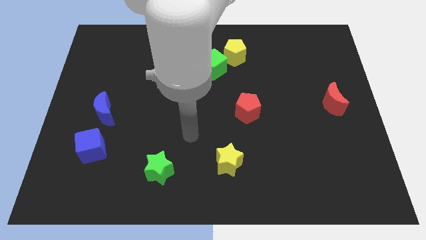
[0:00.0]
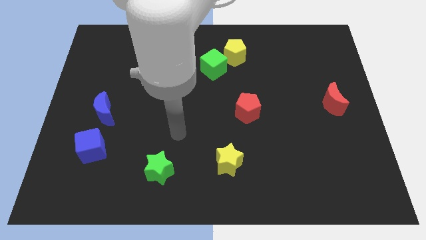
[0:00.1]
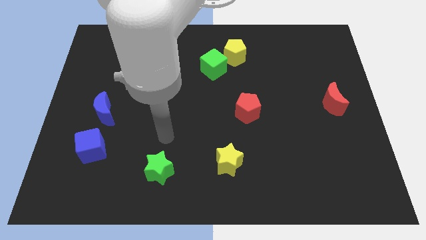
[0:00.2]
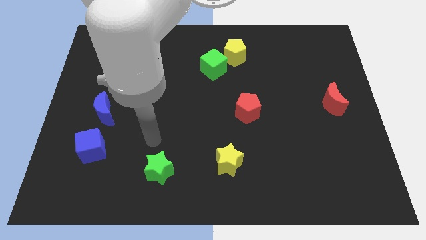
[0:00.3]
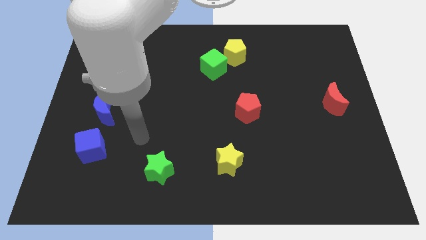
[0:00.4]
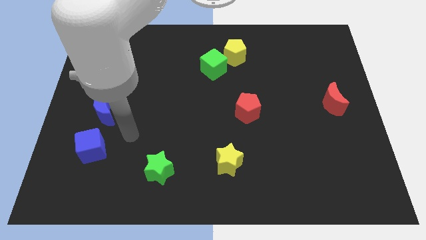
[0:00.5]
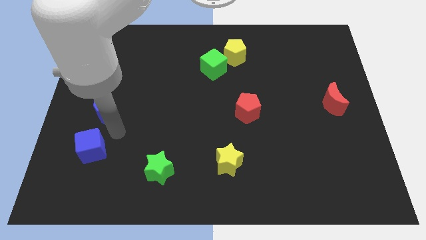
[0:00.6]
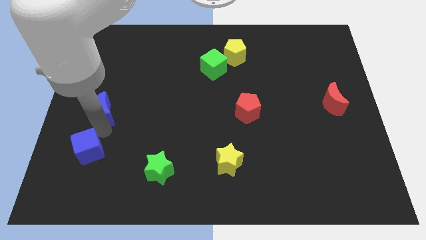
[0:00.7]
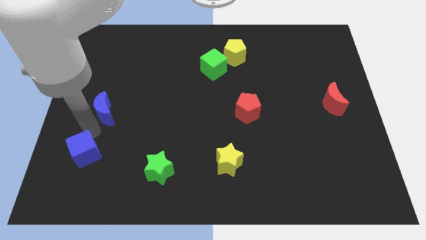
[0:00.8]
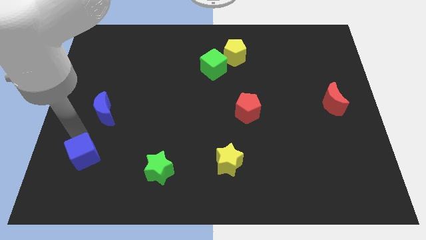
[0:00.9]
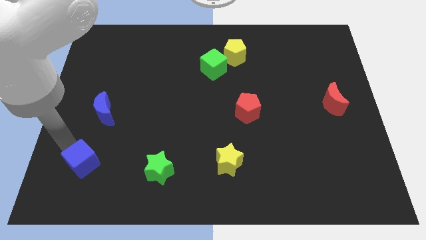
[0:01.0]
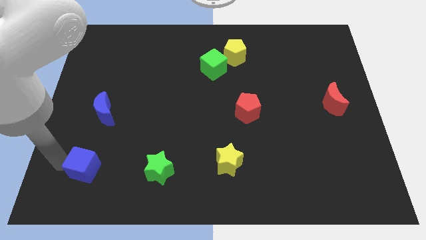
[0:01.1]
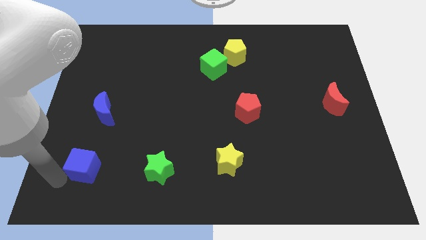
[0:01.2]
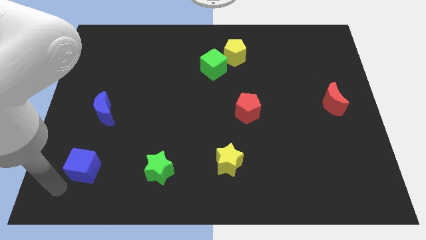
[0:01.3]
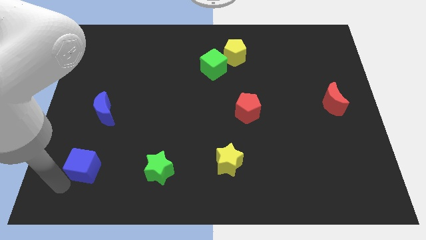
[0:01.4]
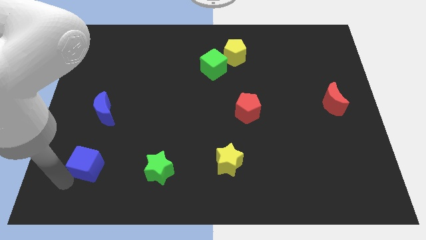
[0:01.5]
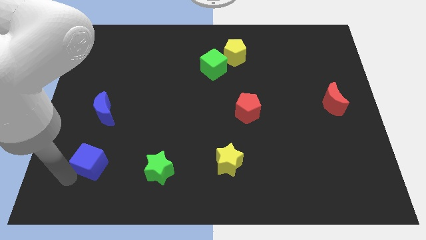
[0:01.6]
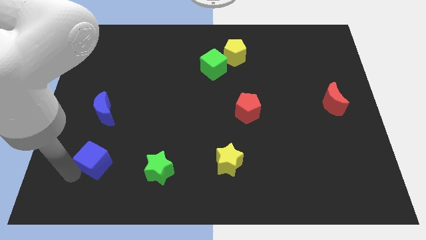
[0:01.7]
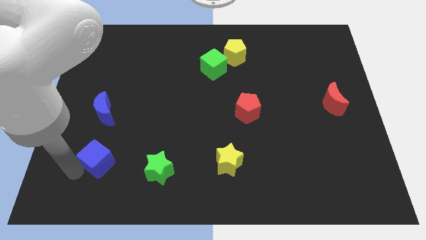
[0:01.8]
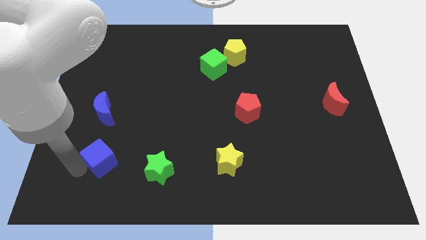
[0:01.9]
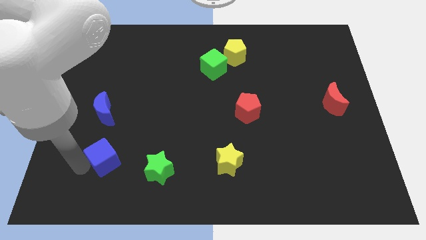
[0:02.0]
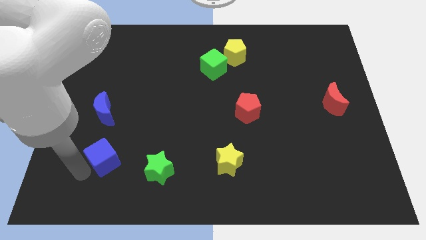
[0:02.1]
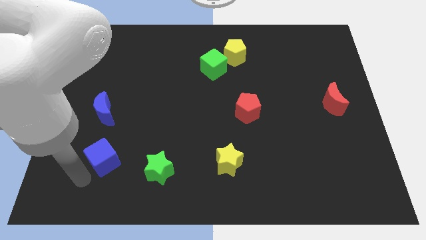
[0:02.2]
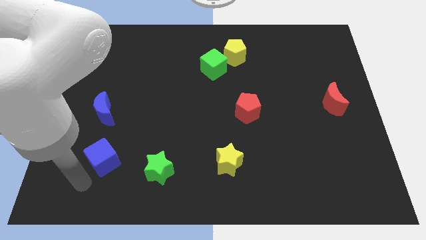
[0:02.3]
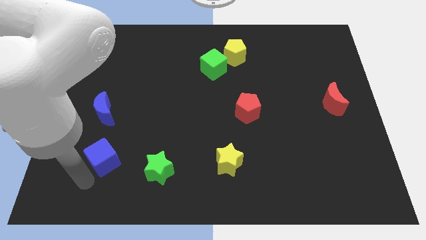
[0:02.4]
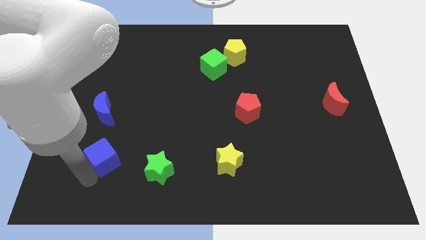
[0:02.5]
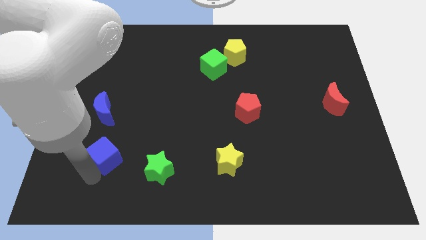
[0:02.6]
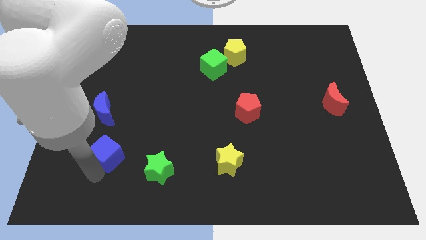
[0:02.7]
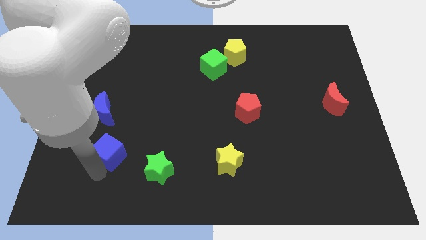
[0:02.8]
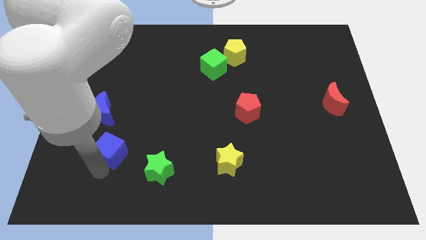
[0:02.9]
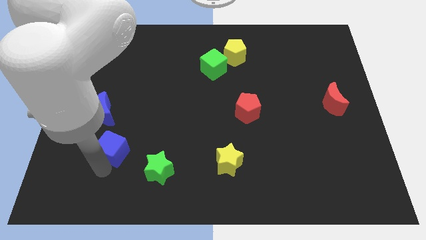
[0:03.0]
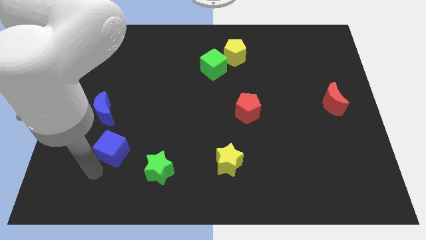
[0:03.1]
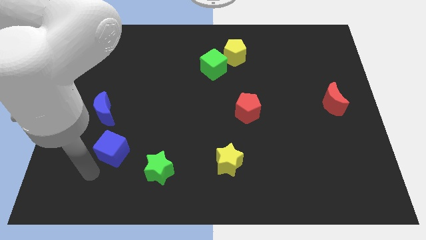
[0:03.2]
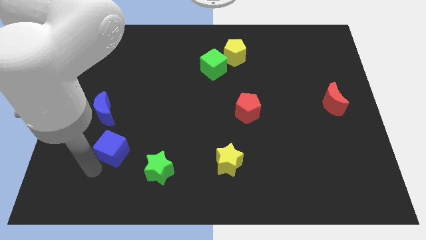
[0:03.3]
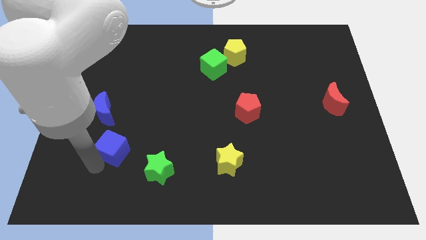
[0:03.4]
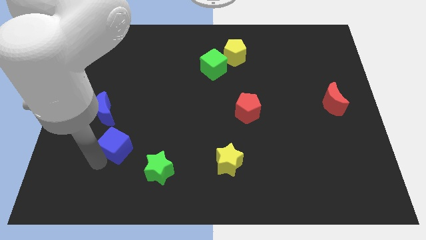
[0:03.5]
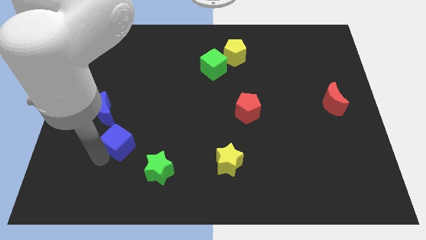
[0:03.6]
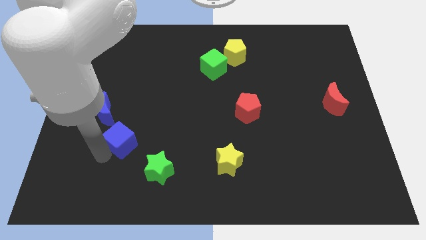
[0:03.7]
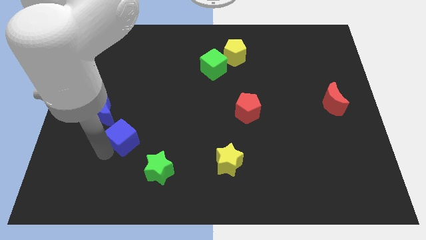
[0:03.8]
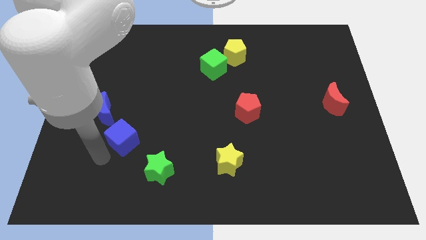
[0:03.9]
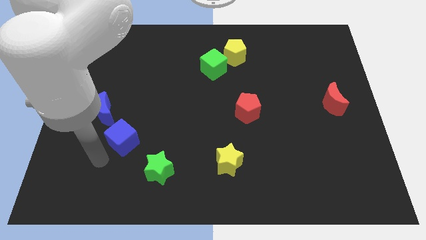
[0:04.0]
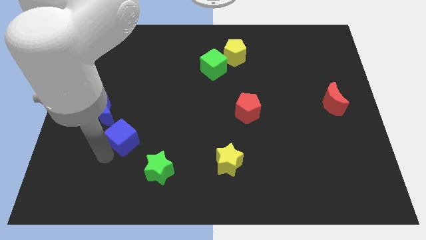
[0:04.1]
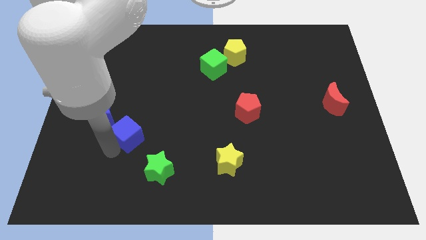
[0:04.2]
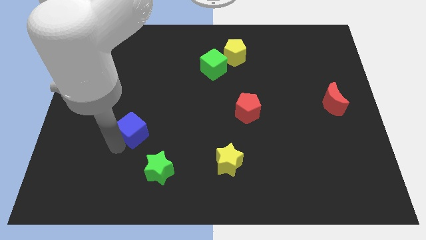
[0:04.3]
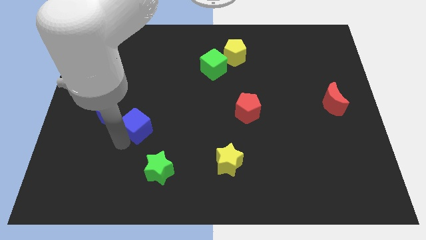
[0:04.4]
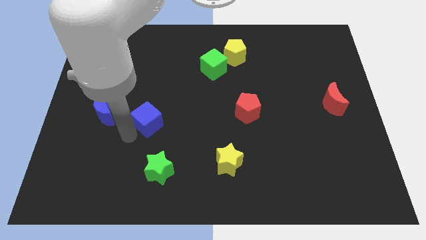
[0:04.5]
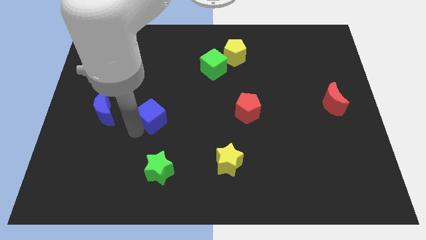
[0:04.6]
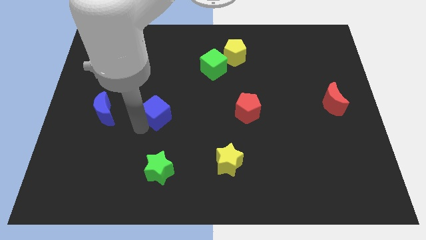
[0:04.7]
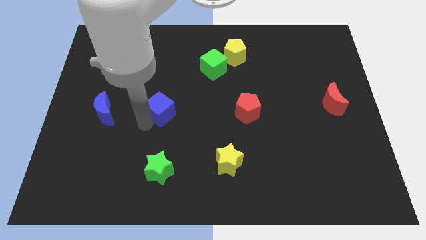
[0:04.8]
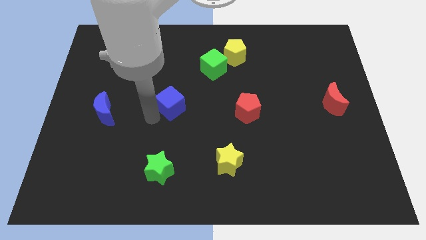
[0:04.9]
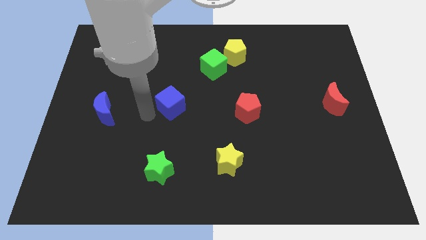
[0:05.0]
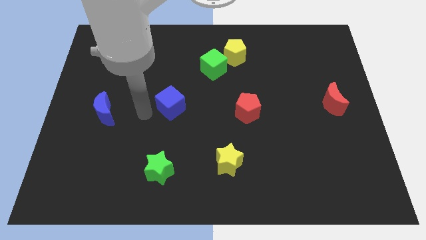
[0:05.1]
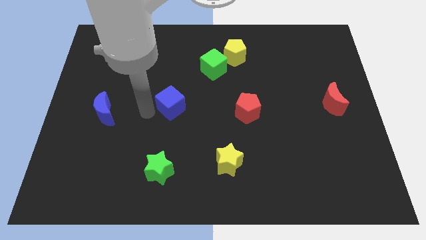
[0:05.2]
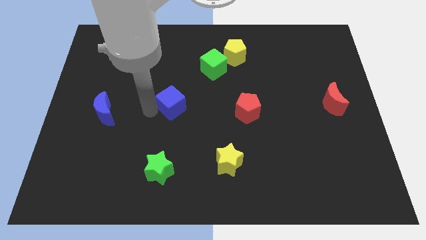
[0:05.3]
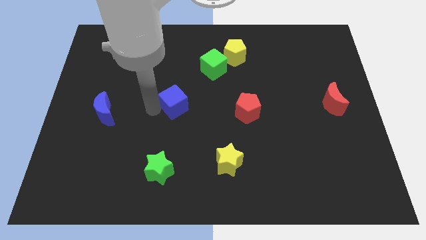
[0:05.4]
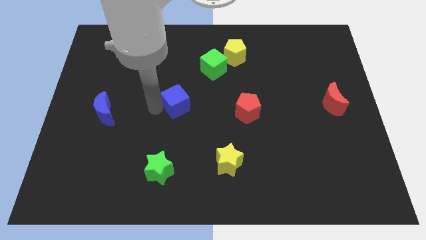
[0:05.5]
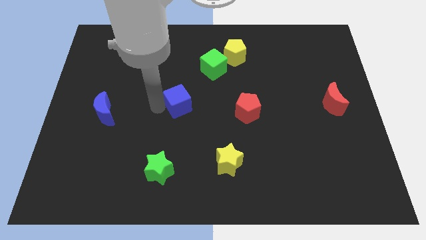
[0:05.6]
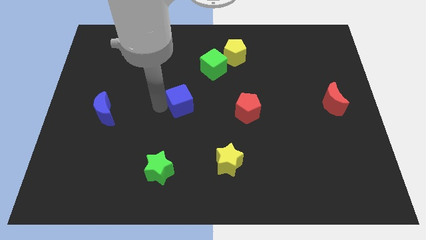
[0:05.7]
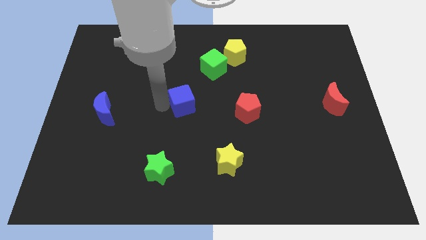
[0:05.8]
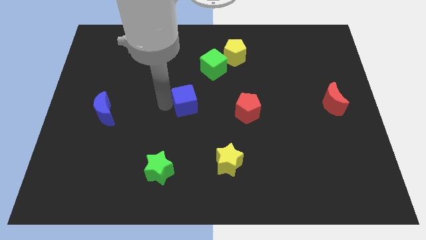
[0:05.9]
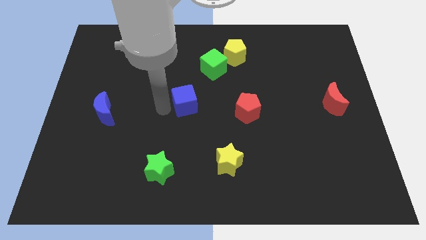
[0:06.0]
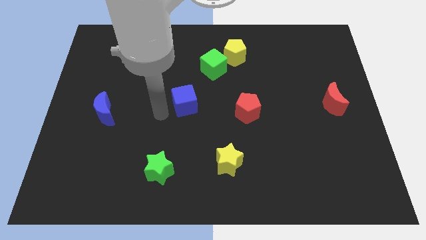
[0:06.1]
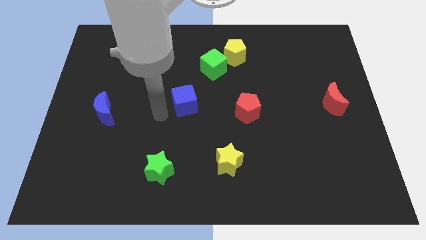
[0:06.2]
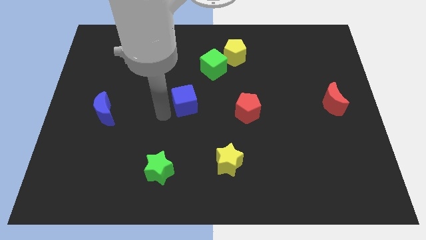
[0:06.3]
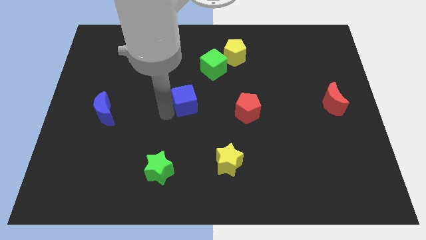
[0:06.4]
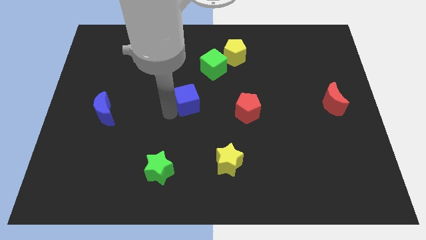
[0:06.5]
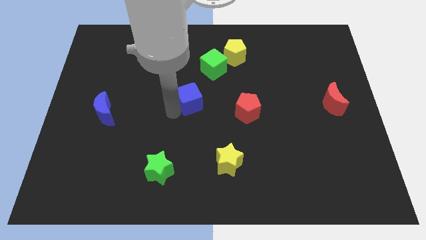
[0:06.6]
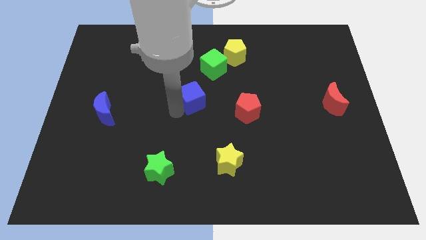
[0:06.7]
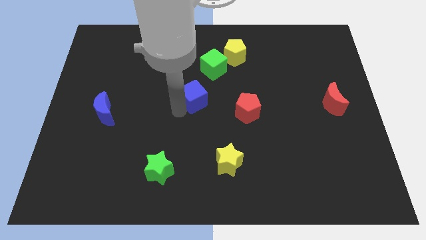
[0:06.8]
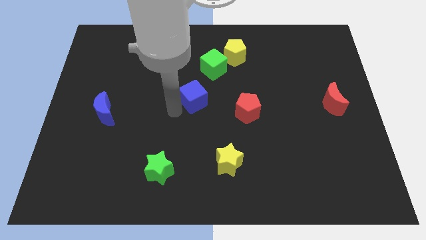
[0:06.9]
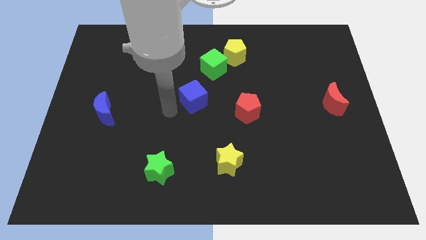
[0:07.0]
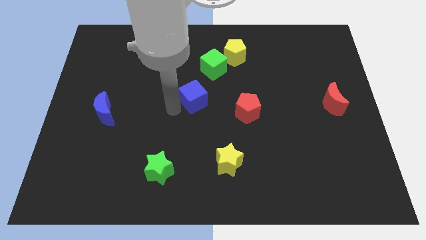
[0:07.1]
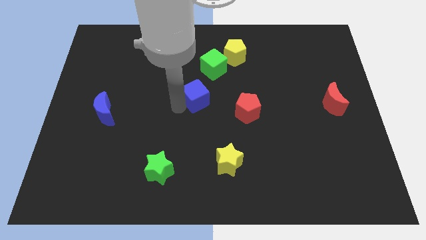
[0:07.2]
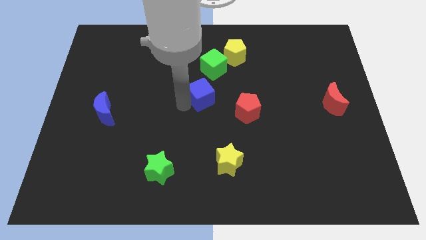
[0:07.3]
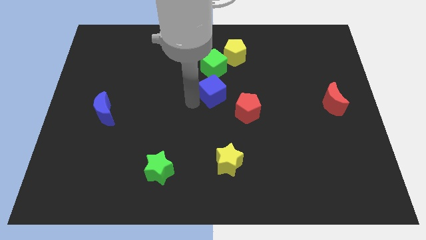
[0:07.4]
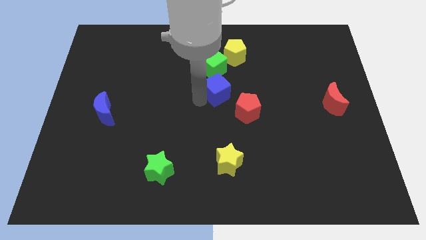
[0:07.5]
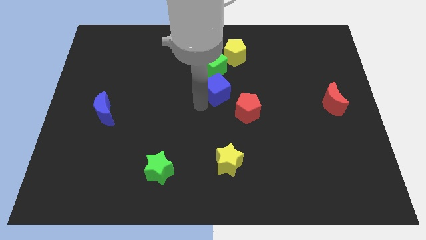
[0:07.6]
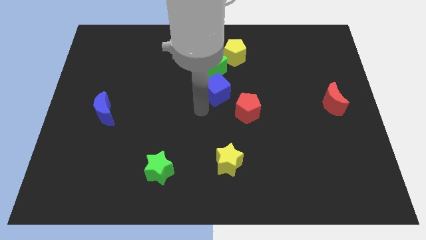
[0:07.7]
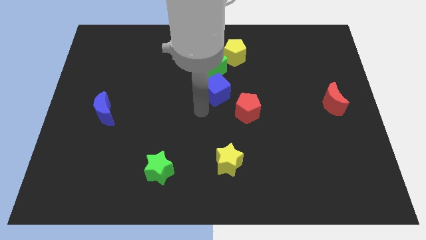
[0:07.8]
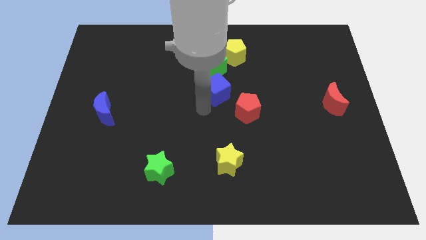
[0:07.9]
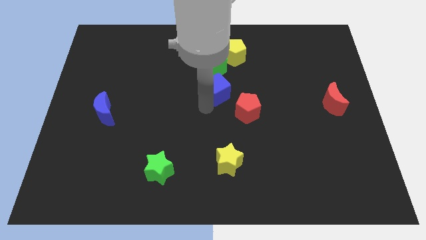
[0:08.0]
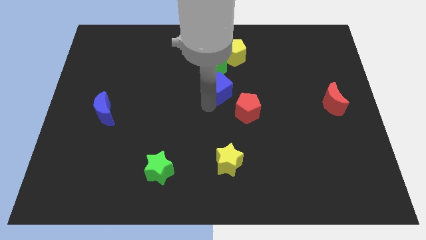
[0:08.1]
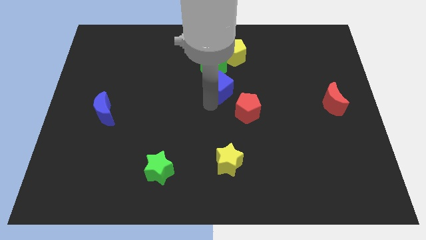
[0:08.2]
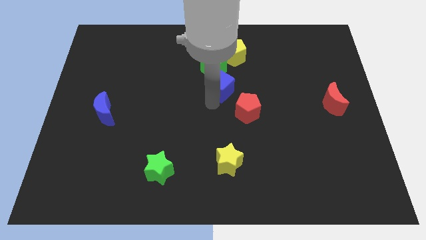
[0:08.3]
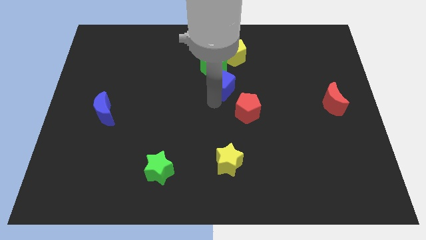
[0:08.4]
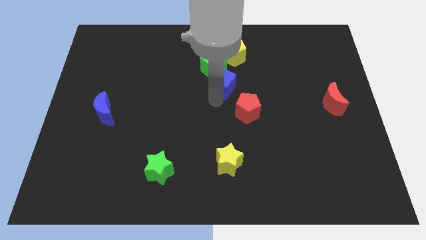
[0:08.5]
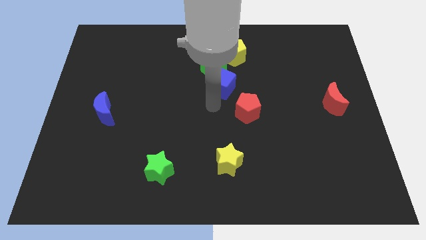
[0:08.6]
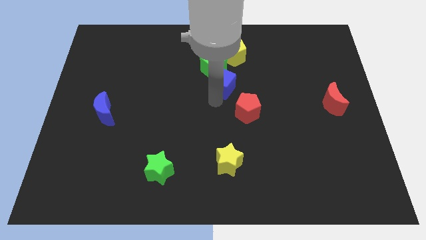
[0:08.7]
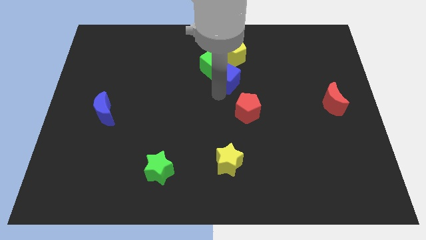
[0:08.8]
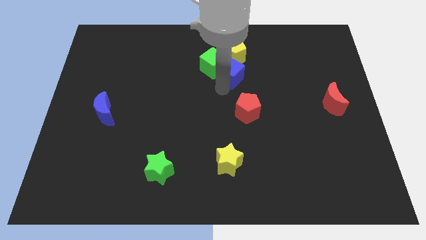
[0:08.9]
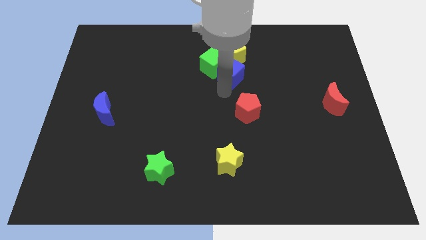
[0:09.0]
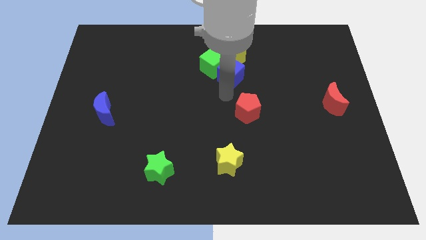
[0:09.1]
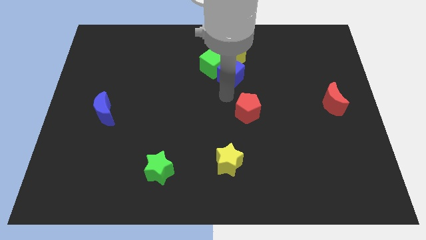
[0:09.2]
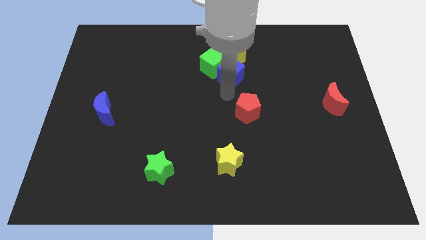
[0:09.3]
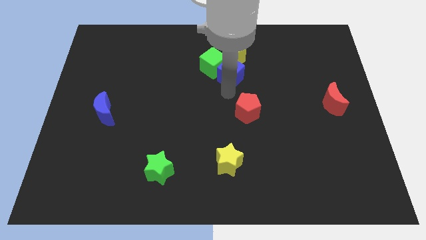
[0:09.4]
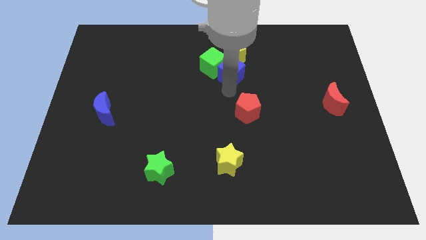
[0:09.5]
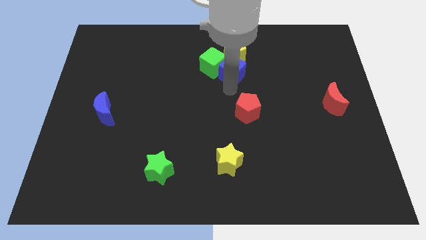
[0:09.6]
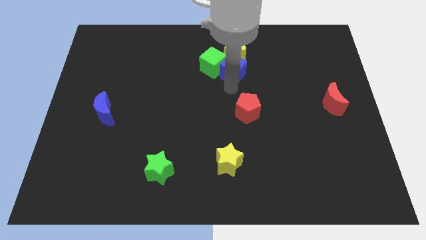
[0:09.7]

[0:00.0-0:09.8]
move the blue cube next to the yellow pentagon
